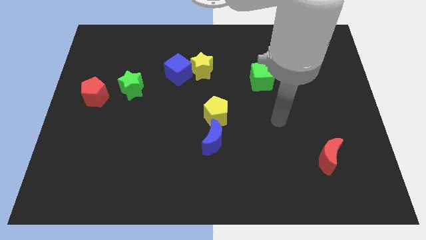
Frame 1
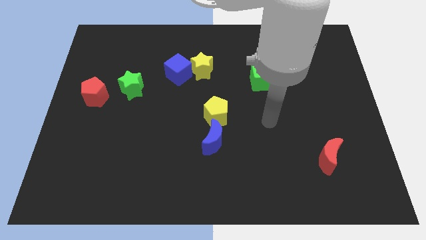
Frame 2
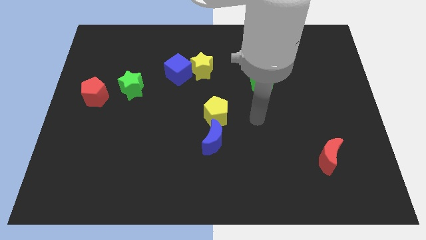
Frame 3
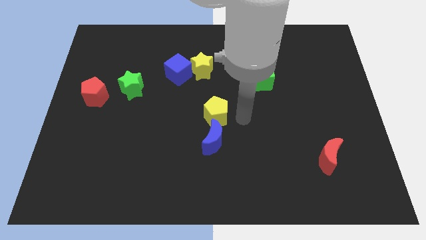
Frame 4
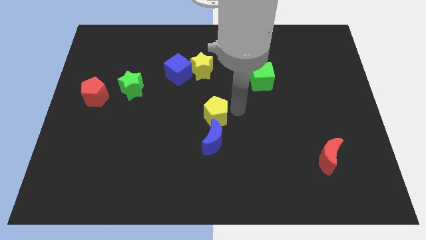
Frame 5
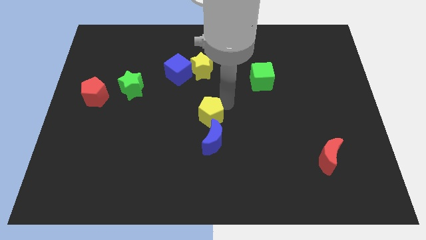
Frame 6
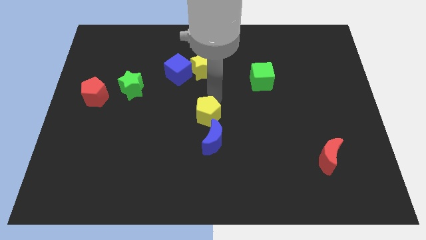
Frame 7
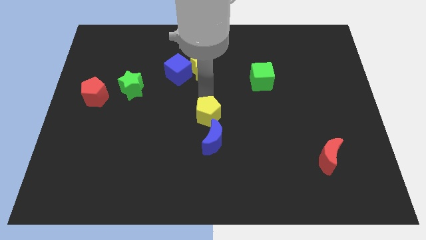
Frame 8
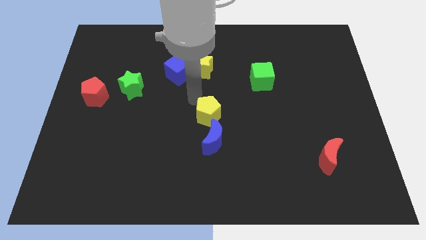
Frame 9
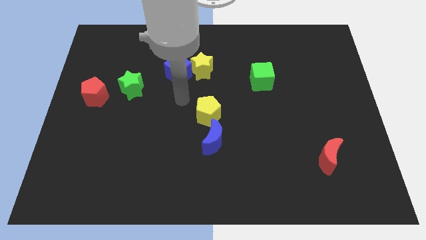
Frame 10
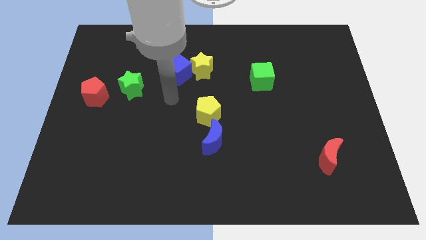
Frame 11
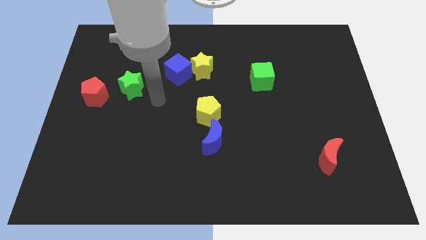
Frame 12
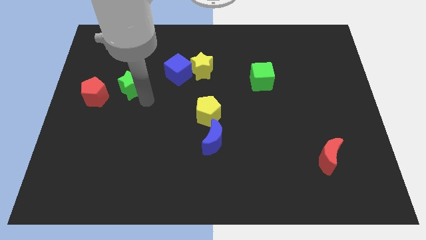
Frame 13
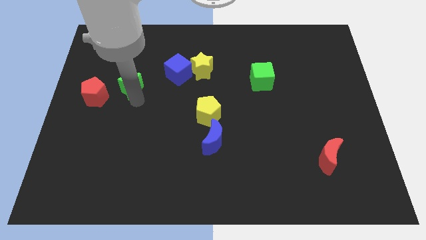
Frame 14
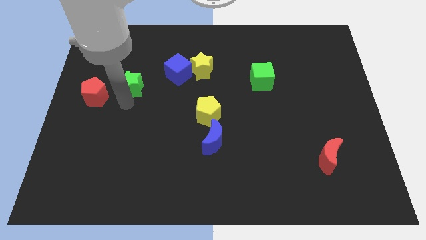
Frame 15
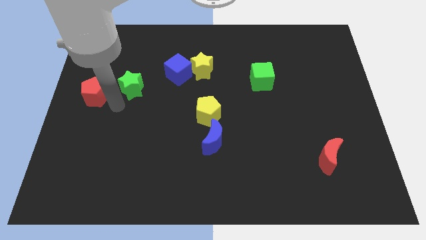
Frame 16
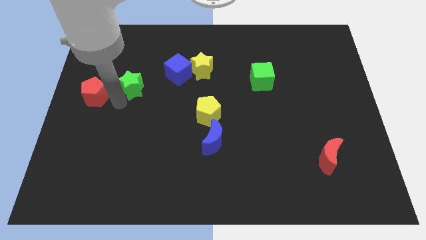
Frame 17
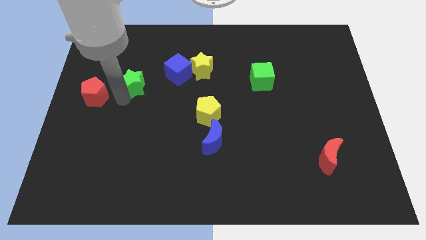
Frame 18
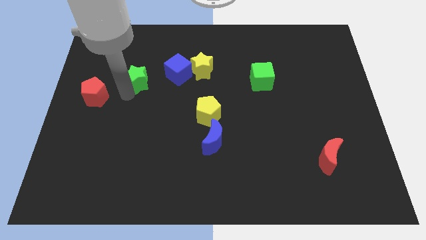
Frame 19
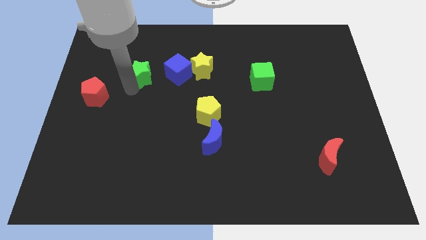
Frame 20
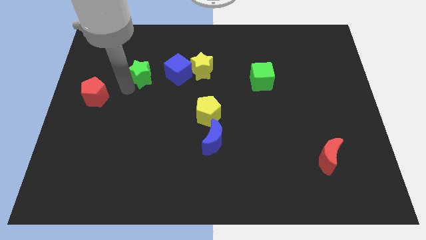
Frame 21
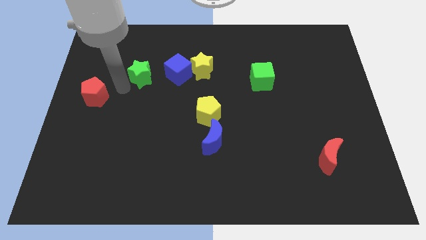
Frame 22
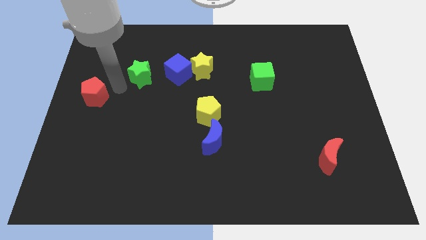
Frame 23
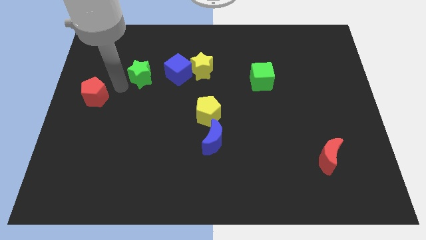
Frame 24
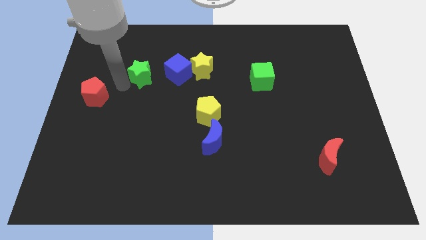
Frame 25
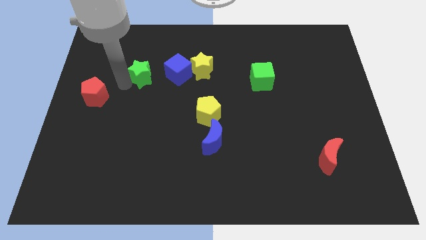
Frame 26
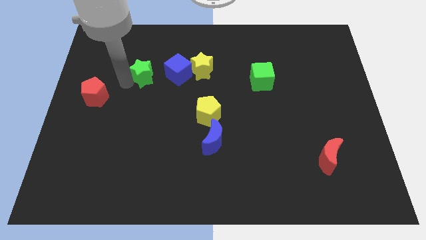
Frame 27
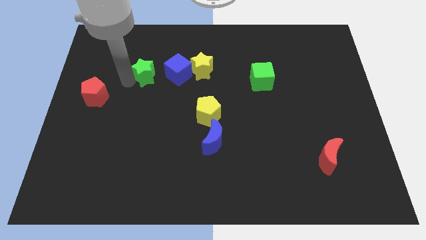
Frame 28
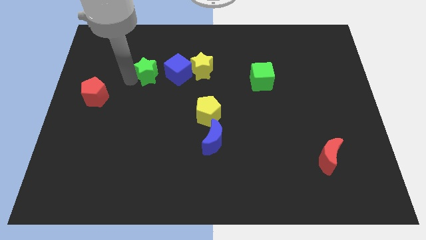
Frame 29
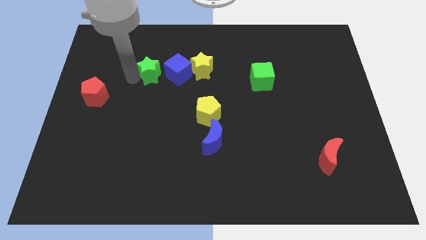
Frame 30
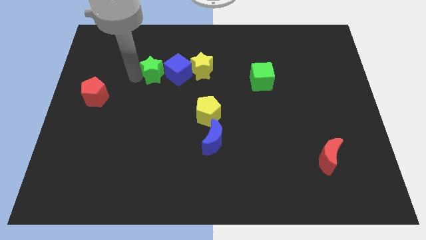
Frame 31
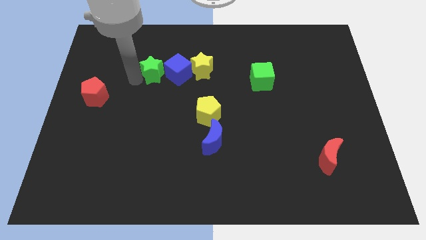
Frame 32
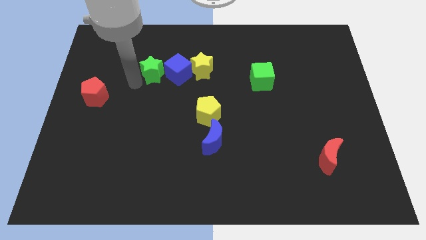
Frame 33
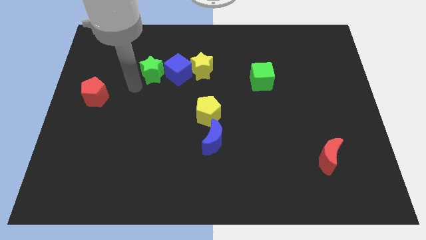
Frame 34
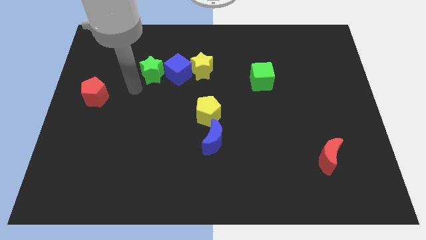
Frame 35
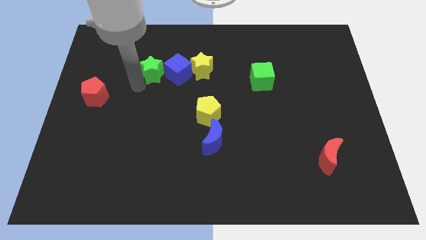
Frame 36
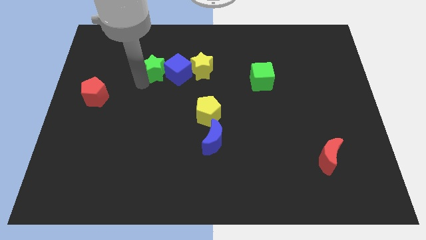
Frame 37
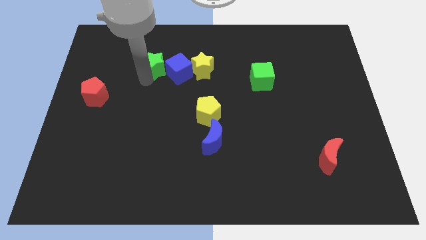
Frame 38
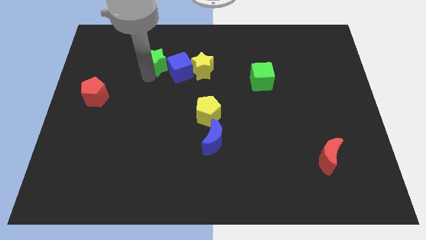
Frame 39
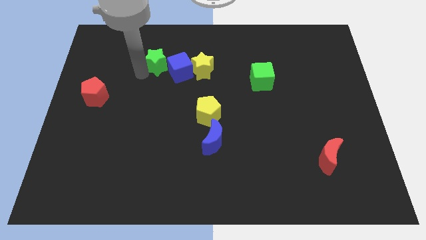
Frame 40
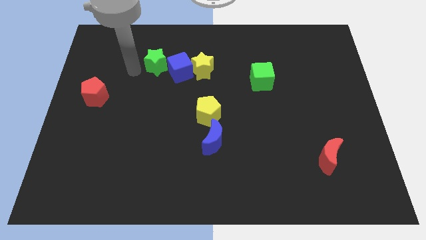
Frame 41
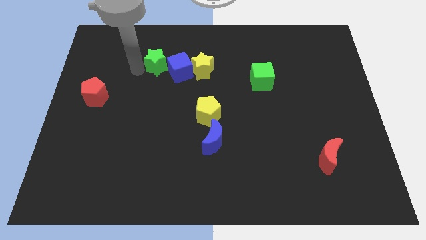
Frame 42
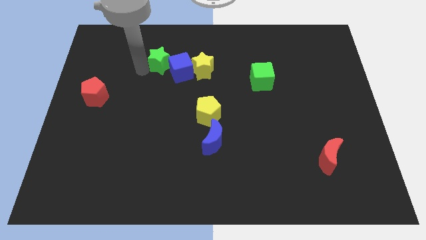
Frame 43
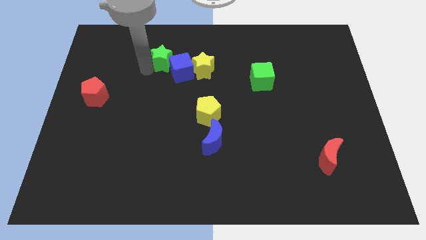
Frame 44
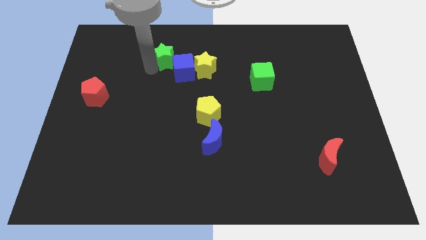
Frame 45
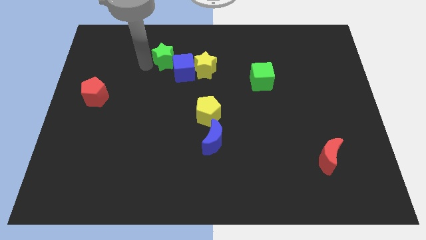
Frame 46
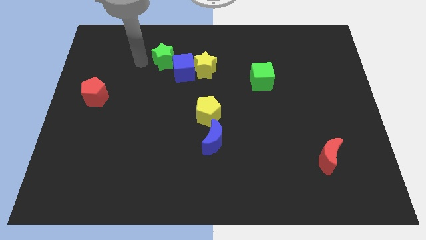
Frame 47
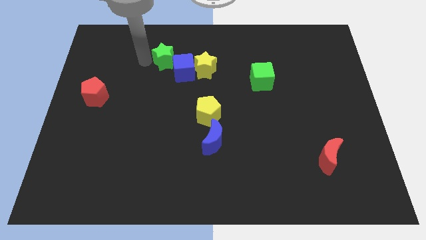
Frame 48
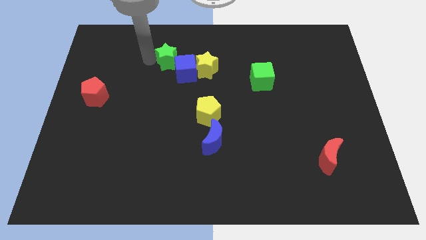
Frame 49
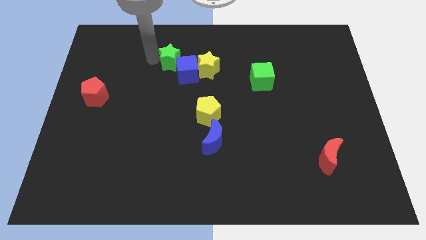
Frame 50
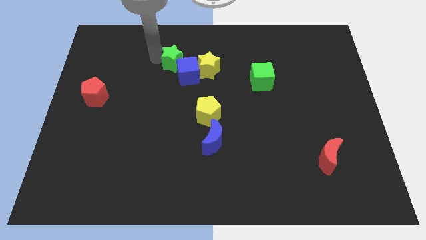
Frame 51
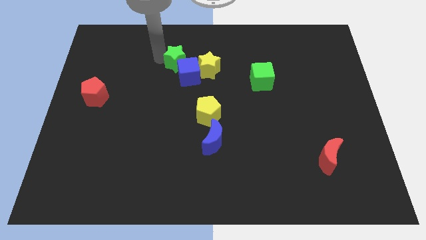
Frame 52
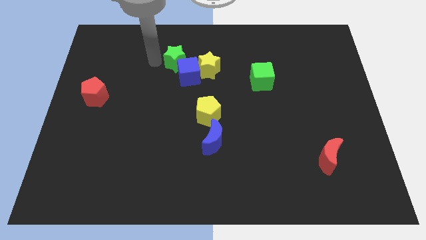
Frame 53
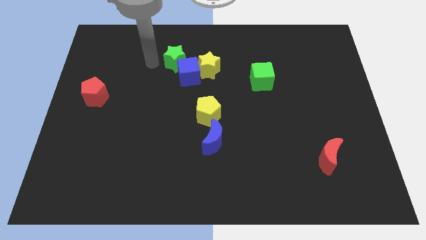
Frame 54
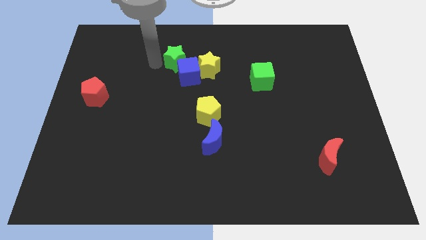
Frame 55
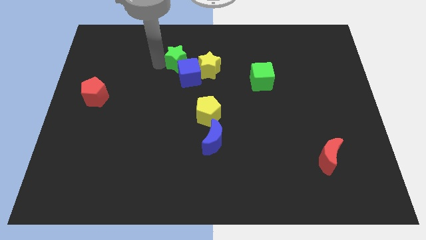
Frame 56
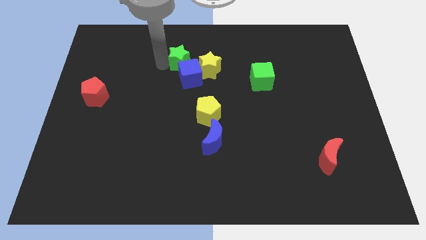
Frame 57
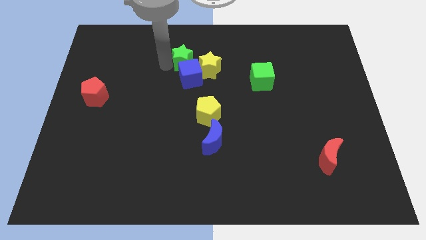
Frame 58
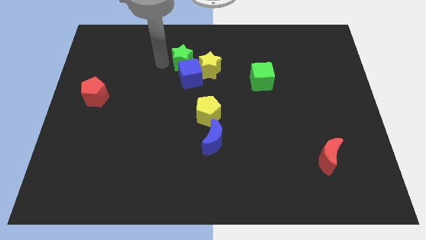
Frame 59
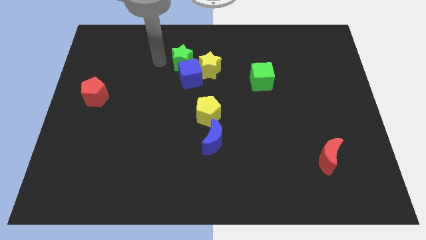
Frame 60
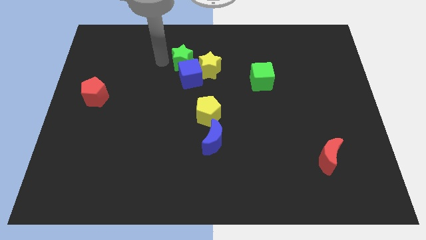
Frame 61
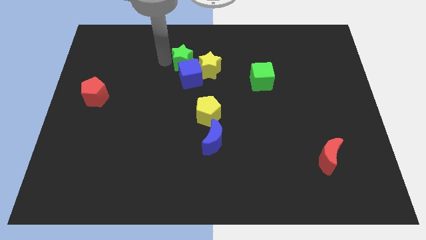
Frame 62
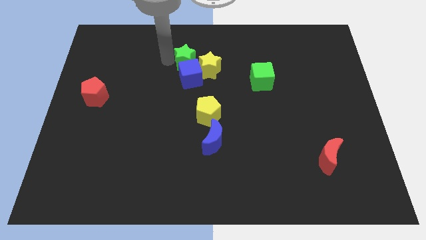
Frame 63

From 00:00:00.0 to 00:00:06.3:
put the green star to the top right side of the blue cube

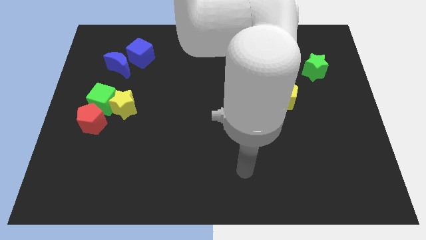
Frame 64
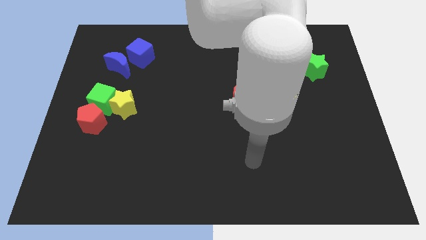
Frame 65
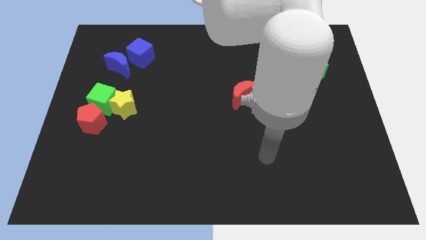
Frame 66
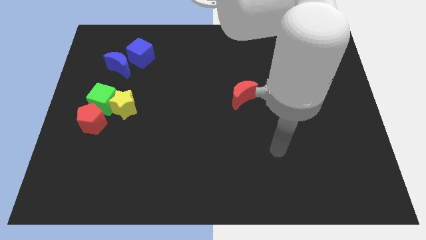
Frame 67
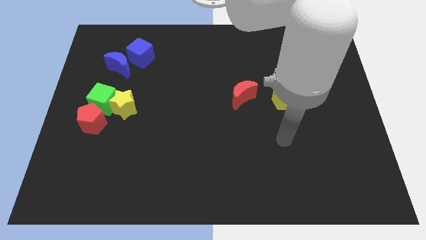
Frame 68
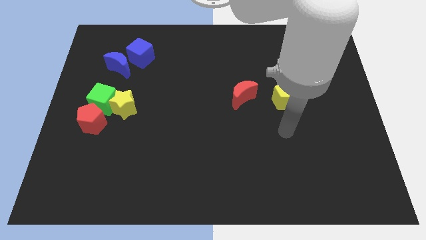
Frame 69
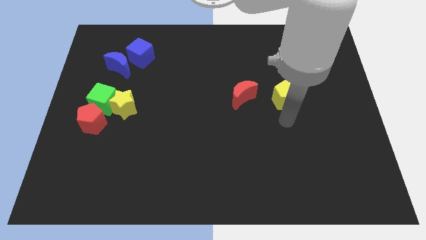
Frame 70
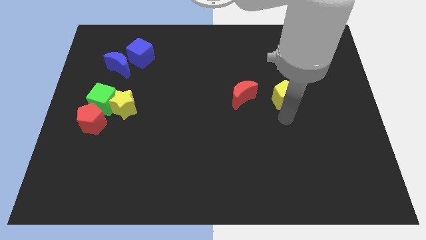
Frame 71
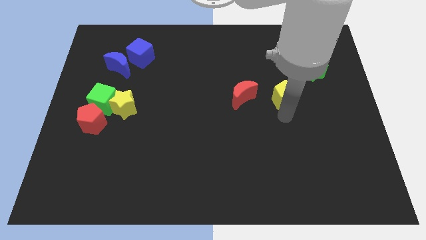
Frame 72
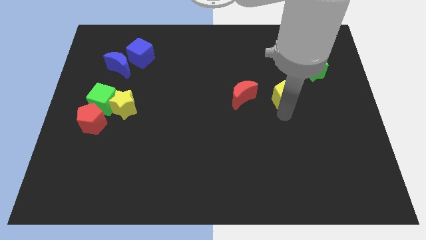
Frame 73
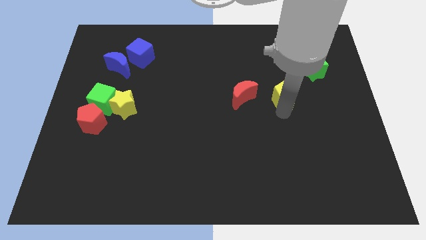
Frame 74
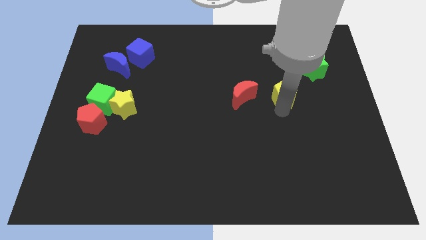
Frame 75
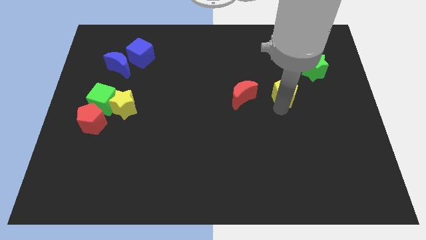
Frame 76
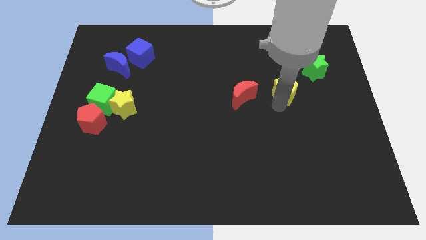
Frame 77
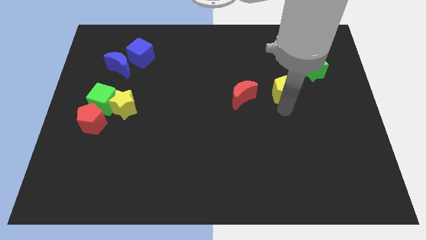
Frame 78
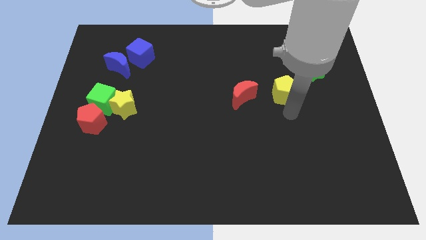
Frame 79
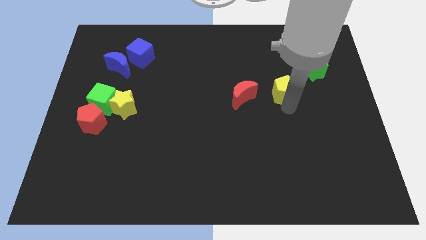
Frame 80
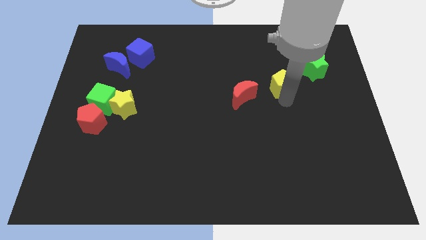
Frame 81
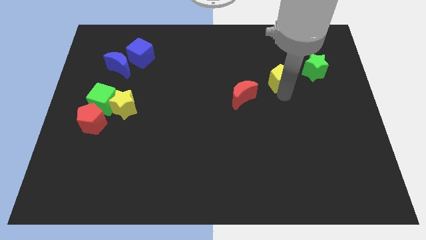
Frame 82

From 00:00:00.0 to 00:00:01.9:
slide the yellow pentagon just left of the green star
